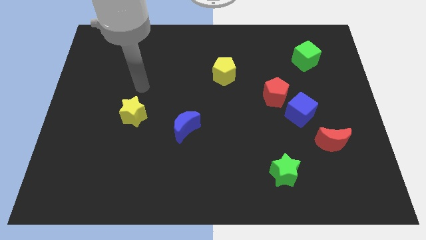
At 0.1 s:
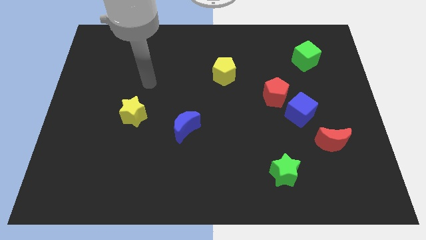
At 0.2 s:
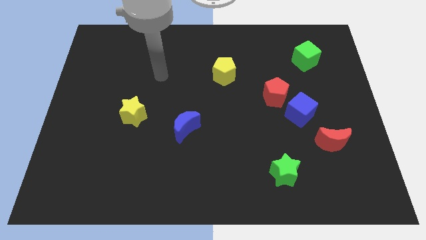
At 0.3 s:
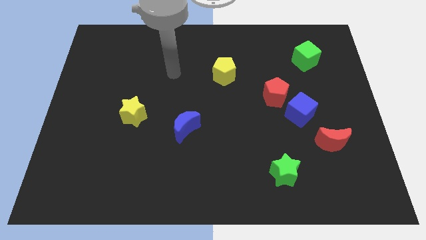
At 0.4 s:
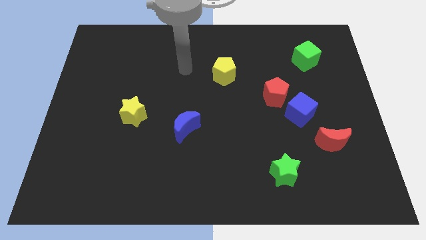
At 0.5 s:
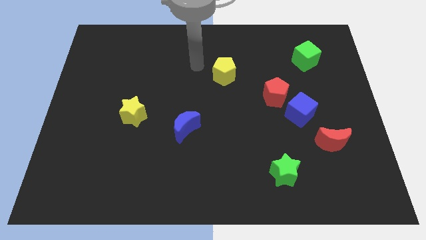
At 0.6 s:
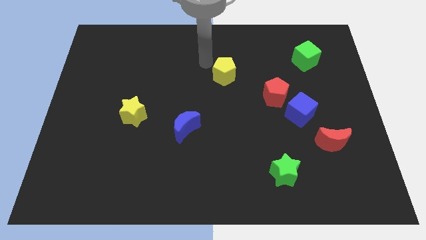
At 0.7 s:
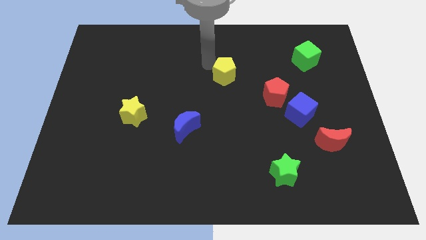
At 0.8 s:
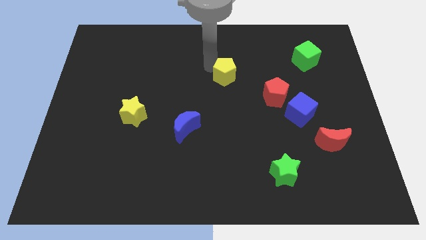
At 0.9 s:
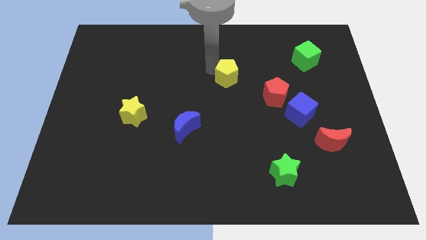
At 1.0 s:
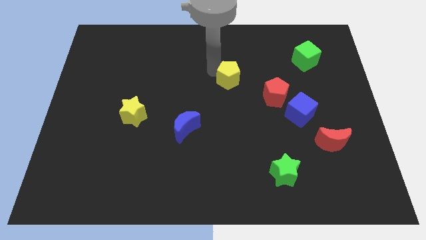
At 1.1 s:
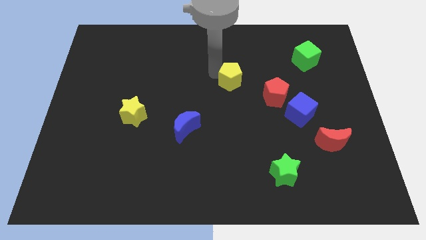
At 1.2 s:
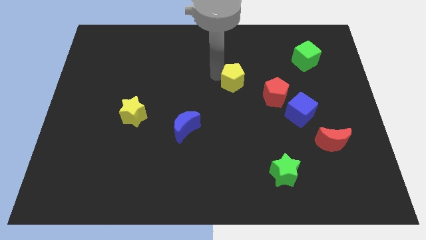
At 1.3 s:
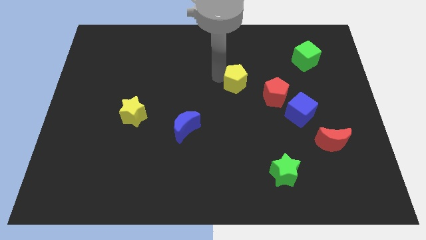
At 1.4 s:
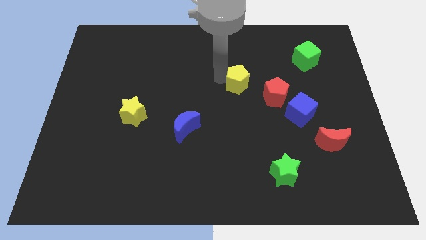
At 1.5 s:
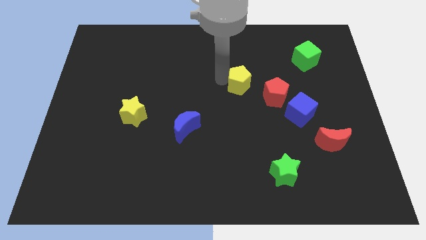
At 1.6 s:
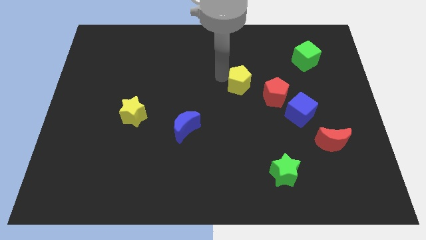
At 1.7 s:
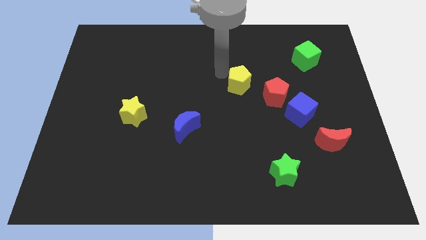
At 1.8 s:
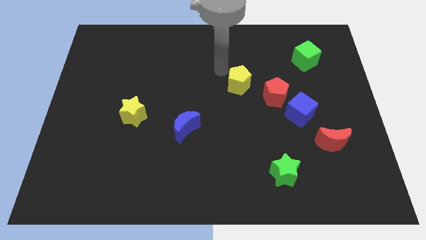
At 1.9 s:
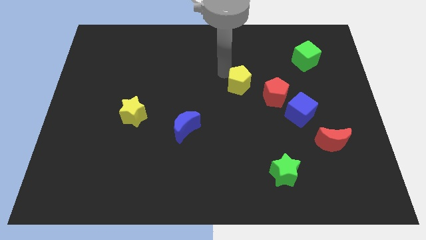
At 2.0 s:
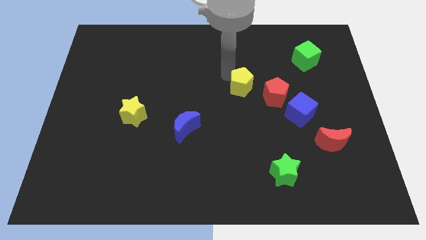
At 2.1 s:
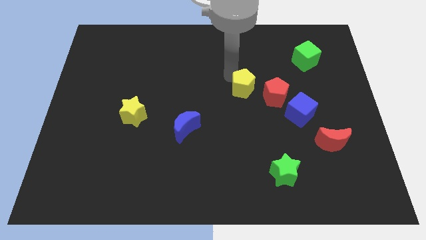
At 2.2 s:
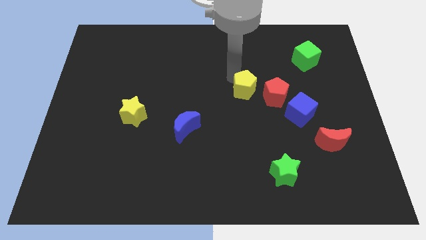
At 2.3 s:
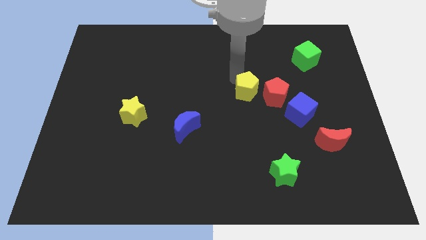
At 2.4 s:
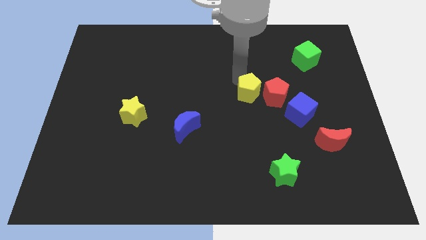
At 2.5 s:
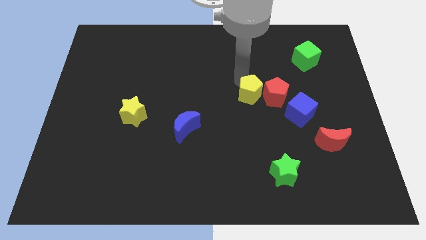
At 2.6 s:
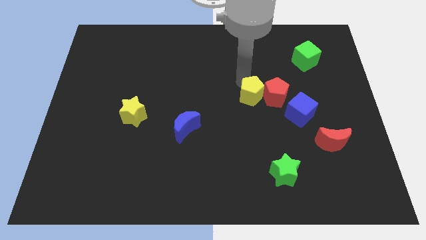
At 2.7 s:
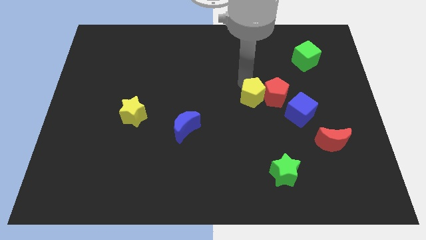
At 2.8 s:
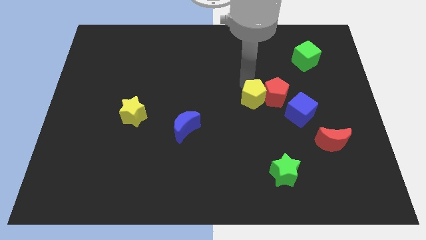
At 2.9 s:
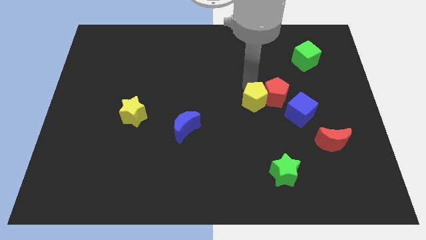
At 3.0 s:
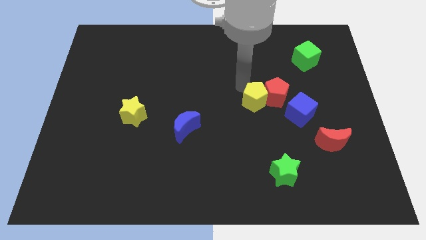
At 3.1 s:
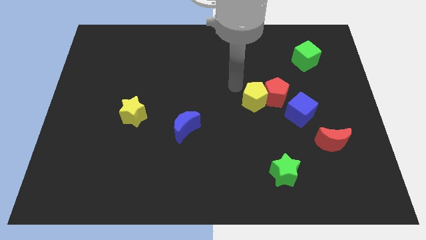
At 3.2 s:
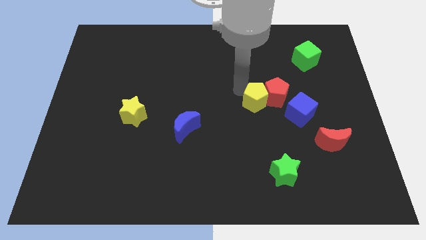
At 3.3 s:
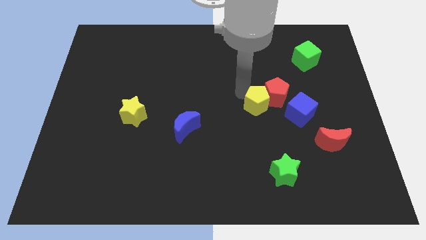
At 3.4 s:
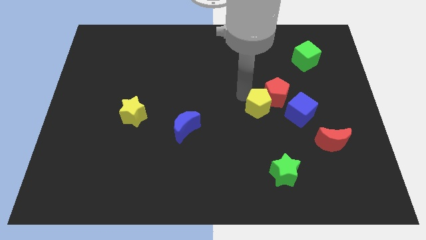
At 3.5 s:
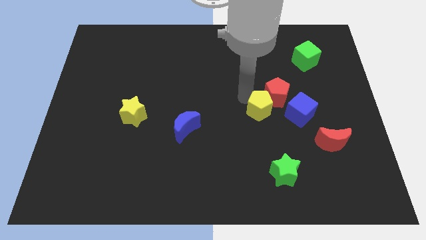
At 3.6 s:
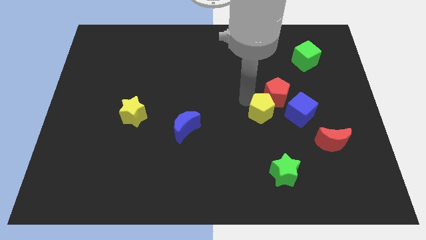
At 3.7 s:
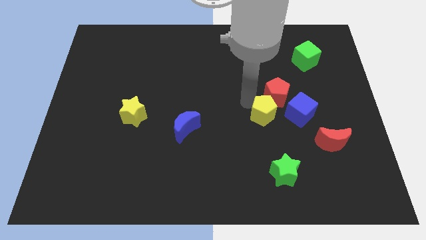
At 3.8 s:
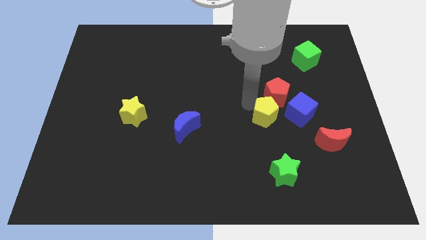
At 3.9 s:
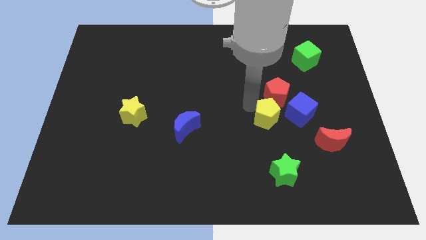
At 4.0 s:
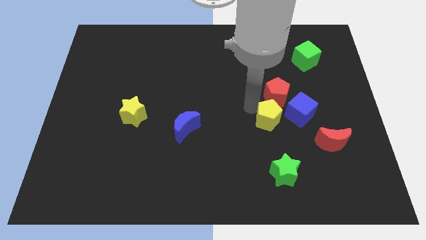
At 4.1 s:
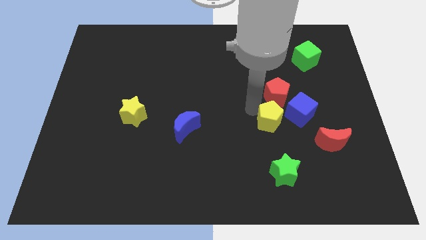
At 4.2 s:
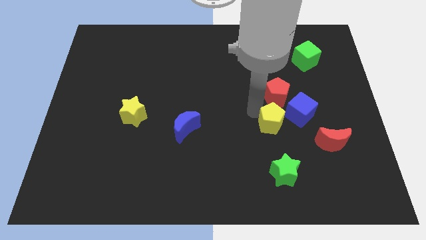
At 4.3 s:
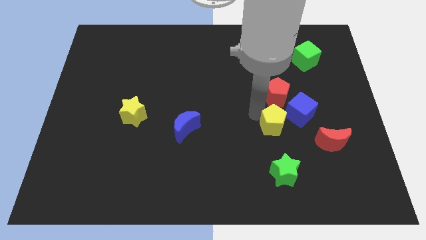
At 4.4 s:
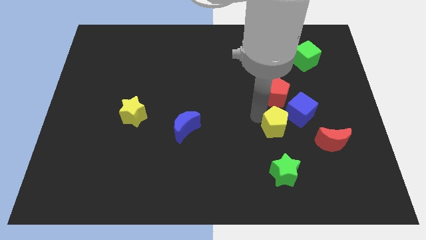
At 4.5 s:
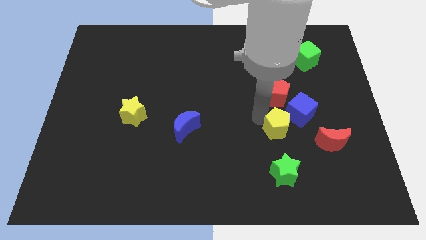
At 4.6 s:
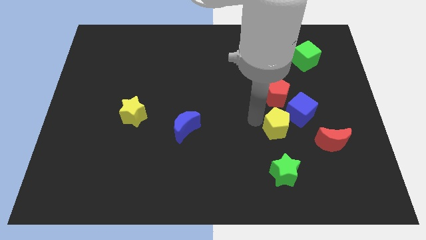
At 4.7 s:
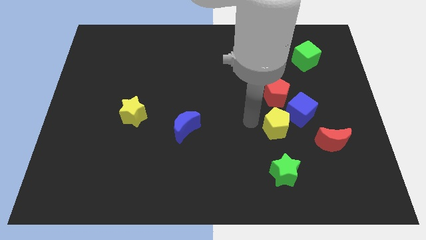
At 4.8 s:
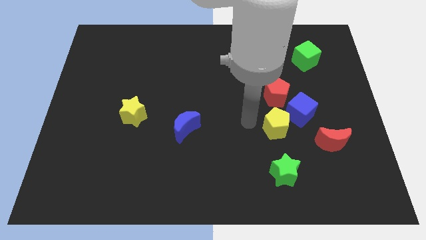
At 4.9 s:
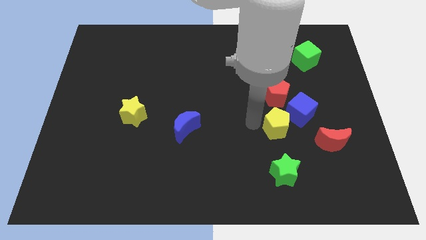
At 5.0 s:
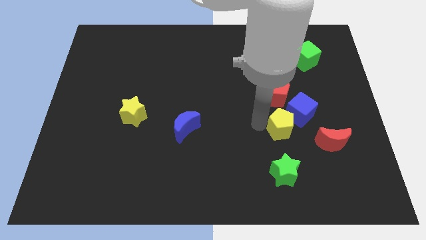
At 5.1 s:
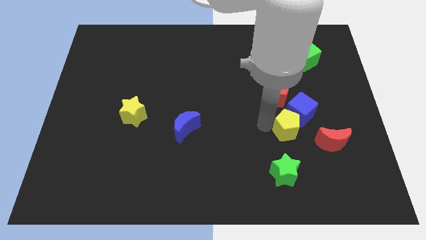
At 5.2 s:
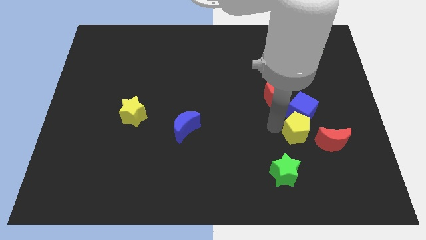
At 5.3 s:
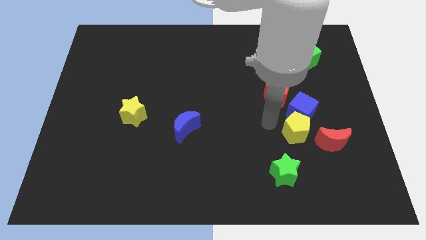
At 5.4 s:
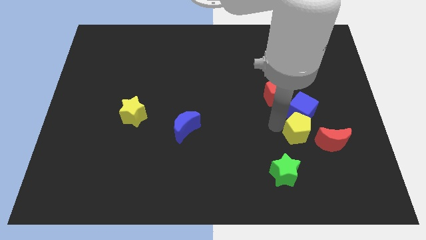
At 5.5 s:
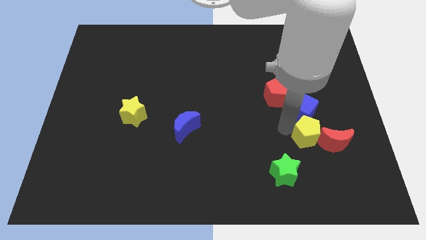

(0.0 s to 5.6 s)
slide the yellow pentagon close to the red moon

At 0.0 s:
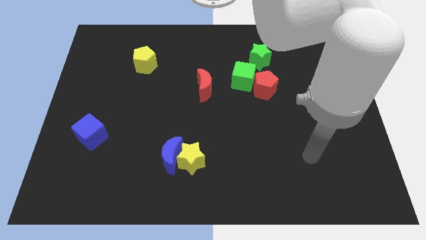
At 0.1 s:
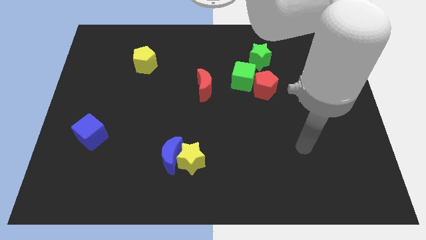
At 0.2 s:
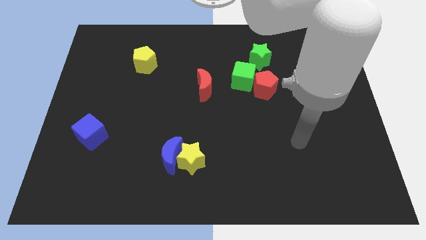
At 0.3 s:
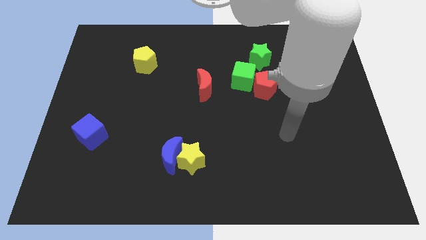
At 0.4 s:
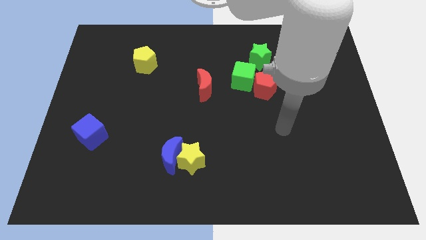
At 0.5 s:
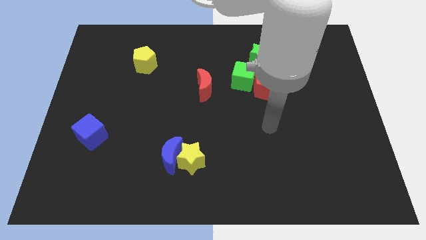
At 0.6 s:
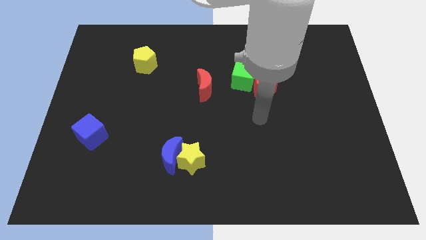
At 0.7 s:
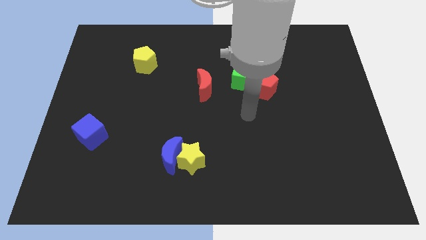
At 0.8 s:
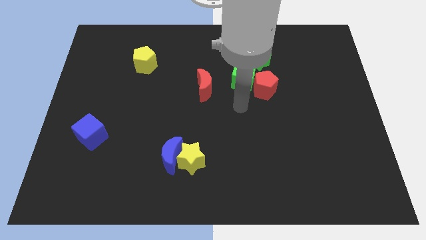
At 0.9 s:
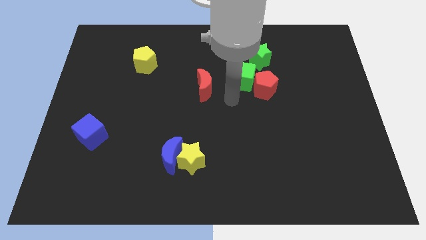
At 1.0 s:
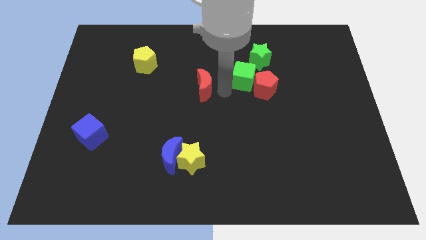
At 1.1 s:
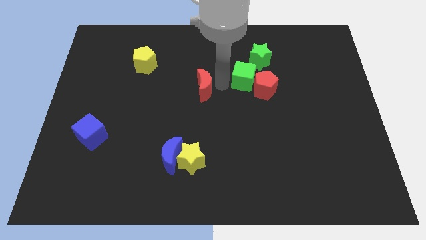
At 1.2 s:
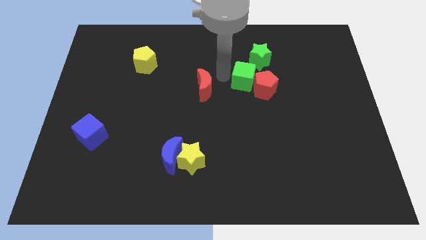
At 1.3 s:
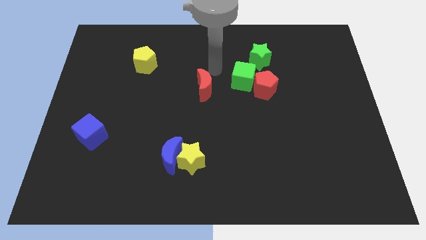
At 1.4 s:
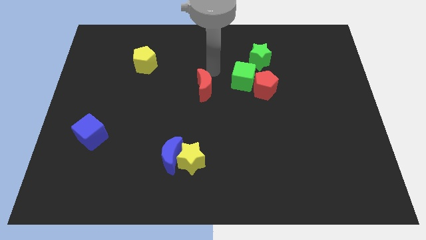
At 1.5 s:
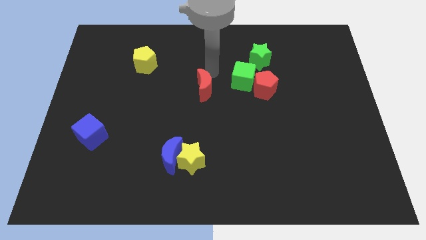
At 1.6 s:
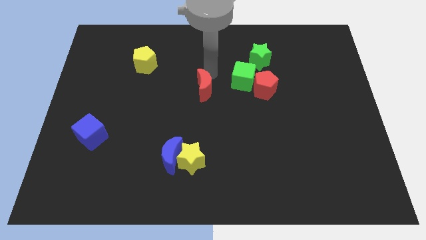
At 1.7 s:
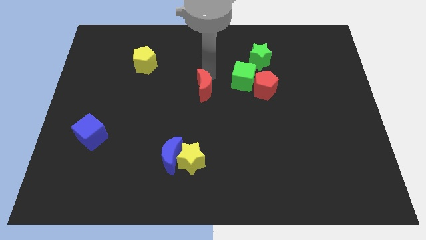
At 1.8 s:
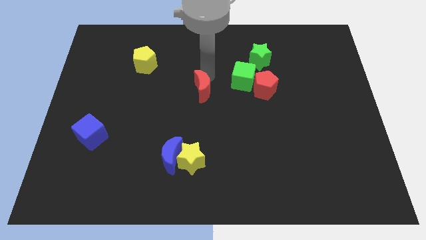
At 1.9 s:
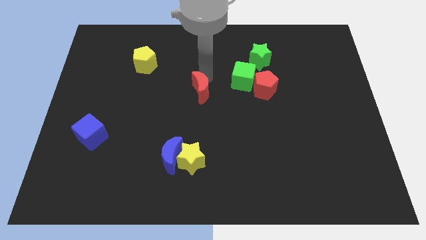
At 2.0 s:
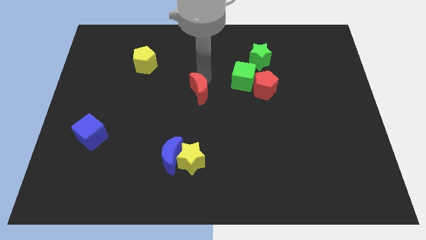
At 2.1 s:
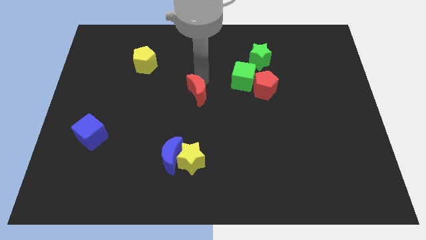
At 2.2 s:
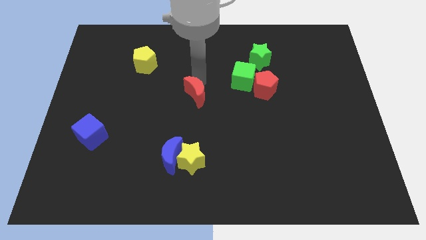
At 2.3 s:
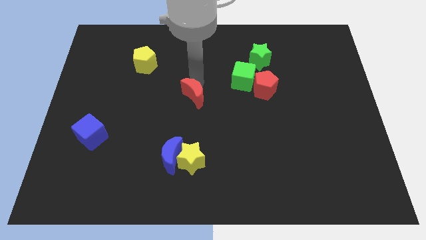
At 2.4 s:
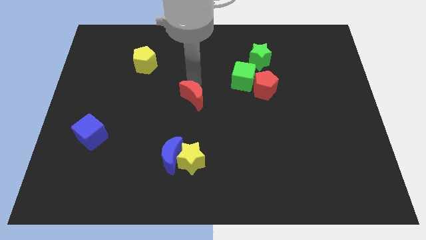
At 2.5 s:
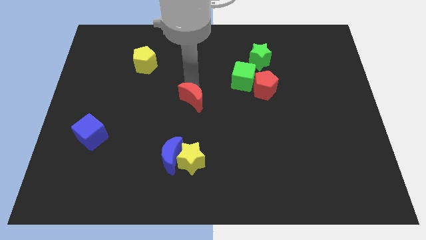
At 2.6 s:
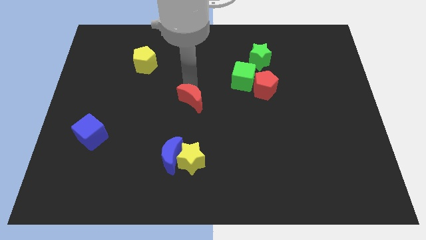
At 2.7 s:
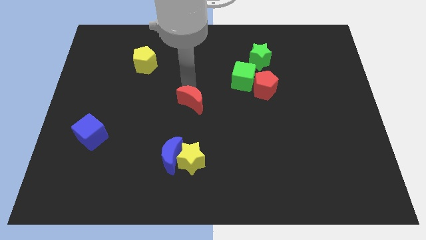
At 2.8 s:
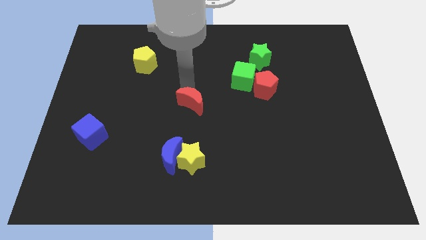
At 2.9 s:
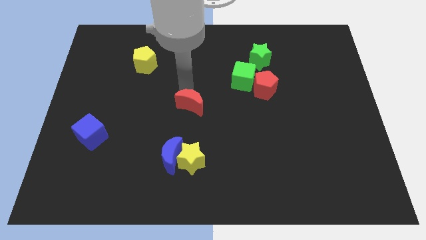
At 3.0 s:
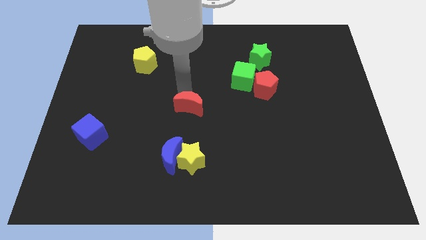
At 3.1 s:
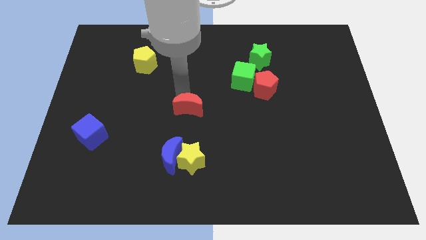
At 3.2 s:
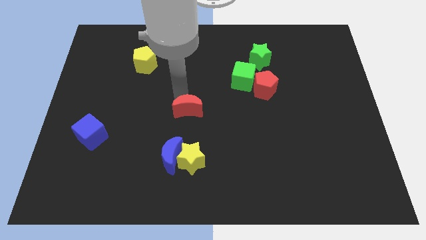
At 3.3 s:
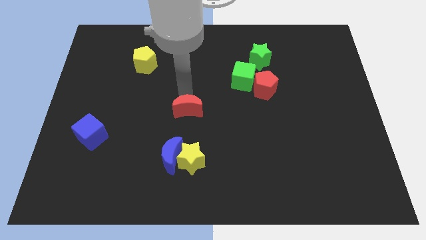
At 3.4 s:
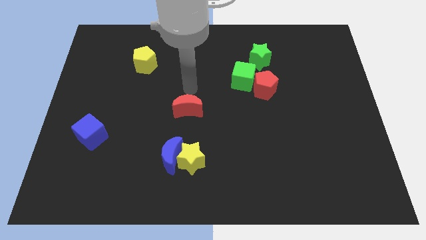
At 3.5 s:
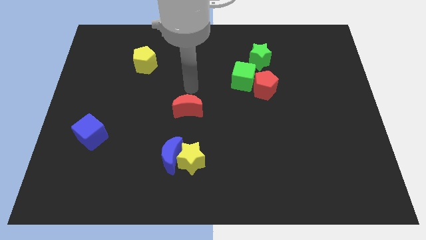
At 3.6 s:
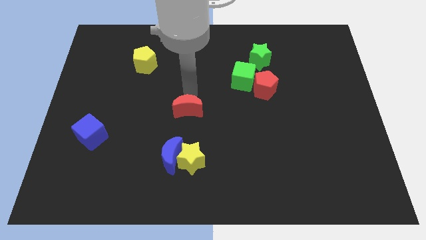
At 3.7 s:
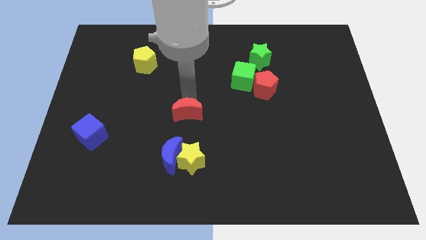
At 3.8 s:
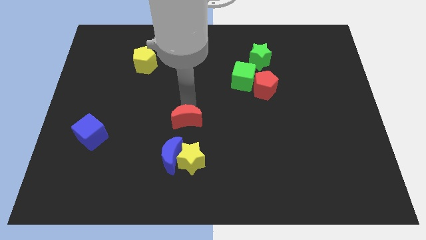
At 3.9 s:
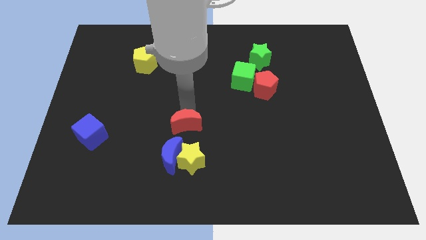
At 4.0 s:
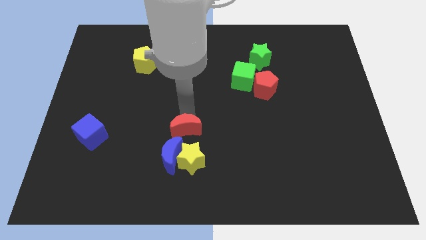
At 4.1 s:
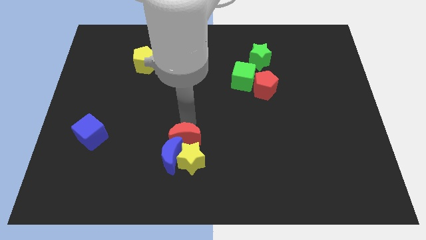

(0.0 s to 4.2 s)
push the red moon to the blue moon
